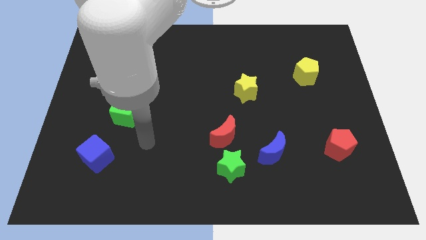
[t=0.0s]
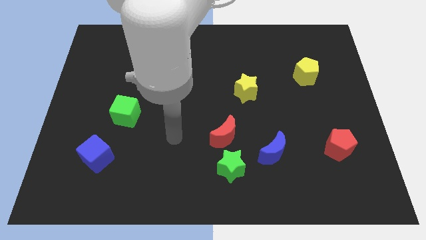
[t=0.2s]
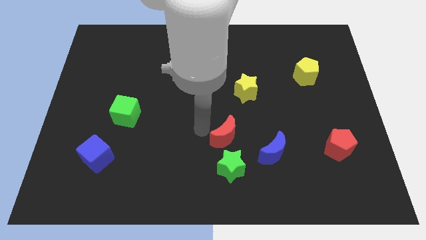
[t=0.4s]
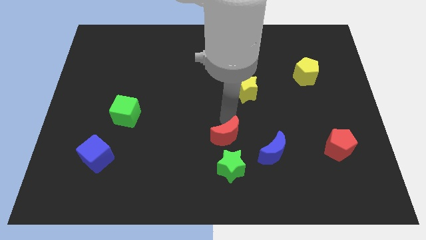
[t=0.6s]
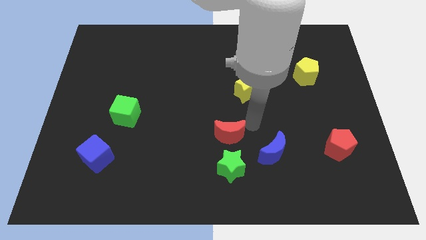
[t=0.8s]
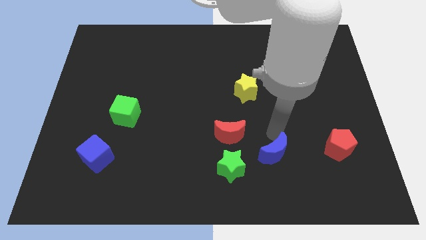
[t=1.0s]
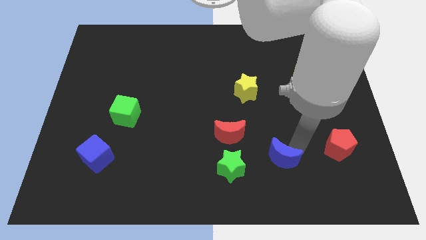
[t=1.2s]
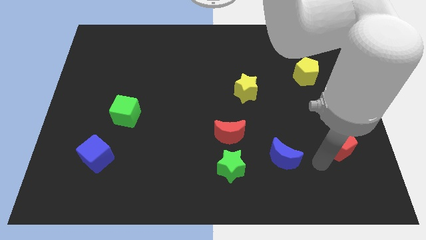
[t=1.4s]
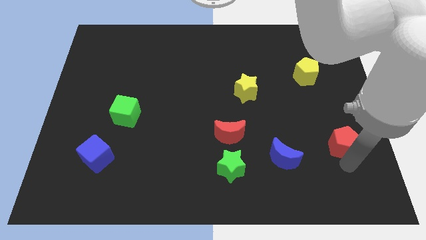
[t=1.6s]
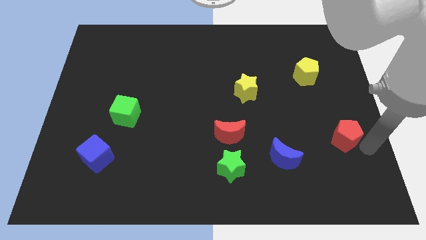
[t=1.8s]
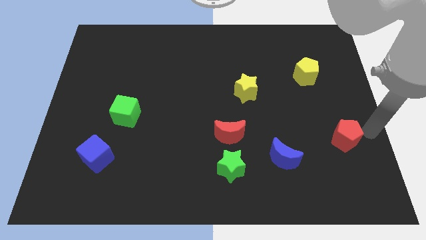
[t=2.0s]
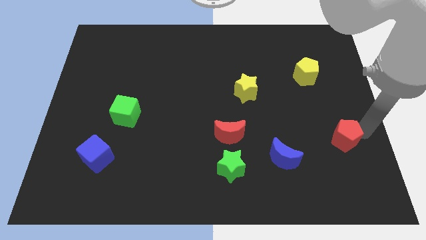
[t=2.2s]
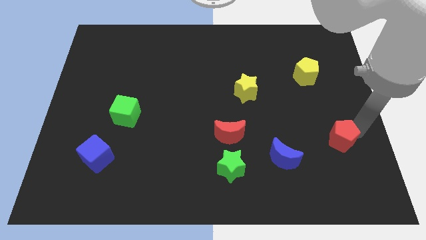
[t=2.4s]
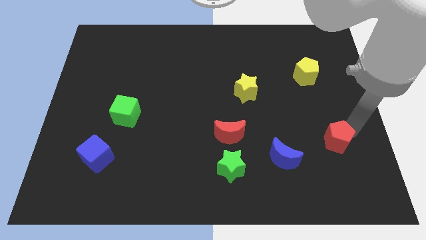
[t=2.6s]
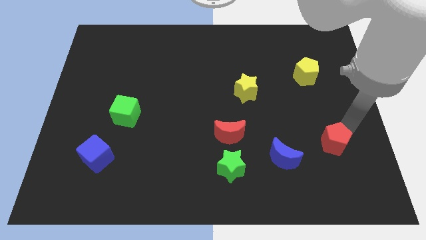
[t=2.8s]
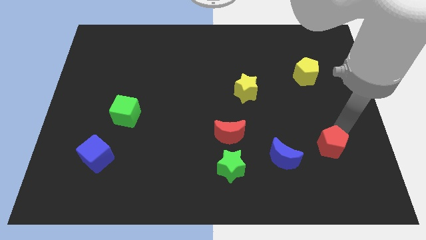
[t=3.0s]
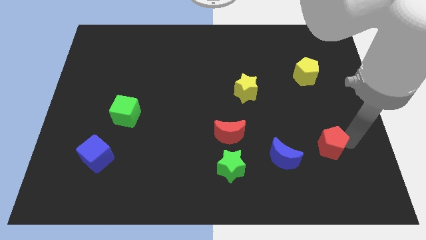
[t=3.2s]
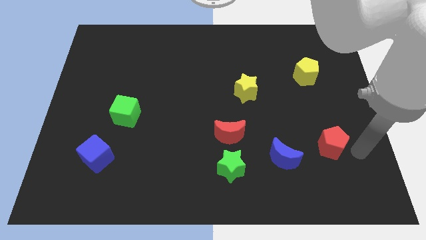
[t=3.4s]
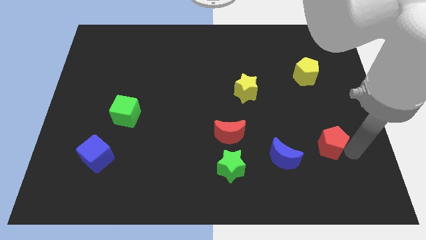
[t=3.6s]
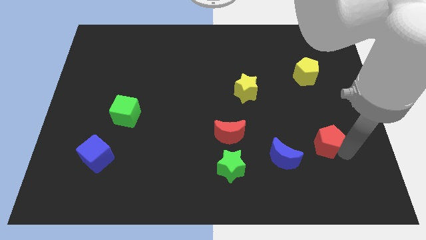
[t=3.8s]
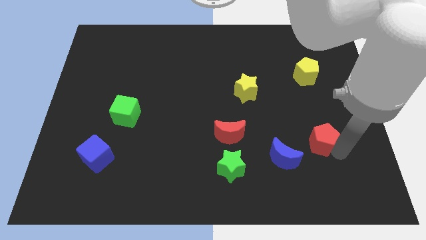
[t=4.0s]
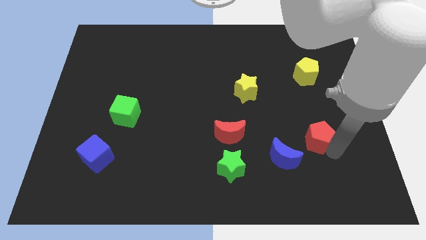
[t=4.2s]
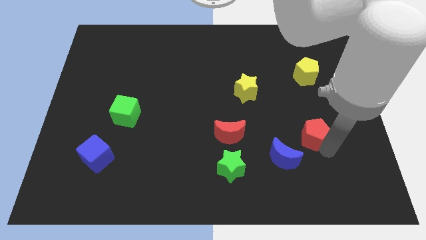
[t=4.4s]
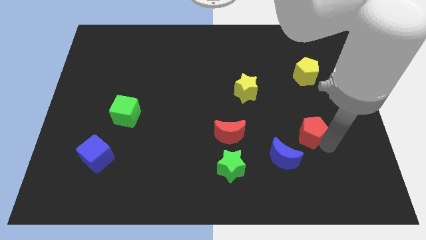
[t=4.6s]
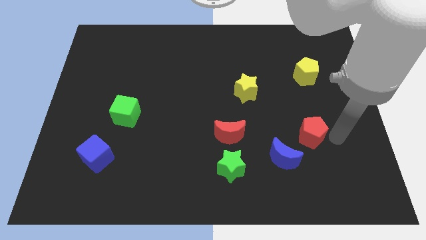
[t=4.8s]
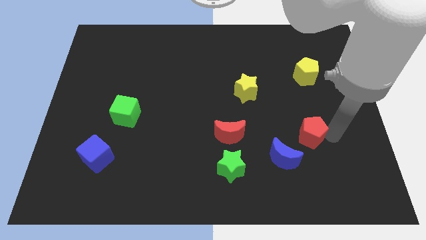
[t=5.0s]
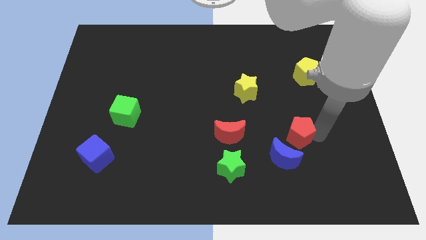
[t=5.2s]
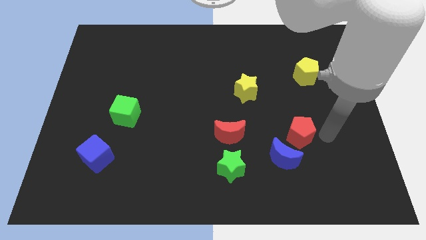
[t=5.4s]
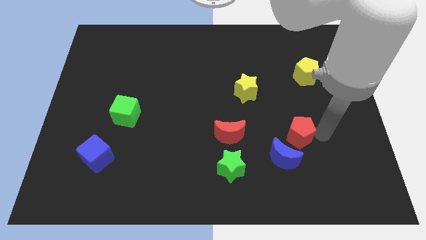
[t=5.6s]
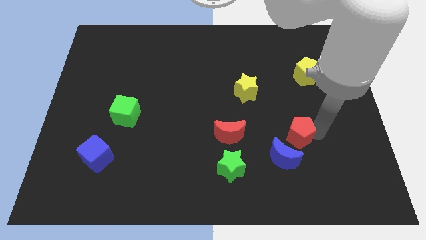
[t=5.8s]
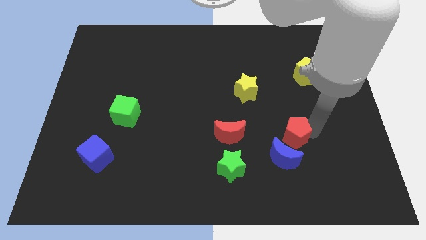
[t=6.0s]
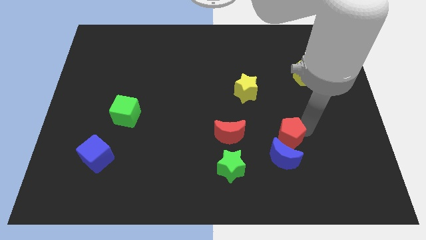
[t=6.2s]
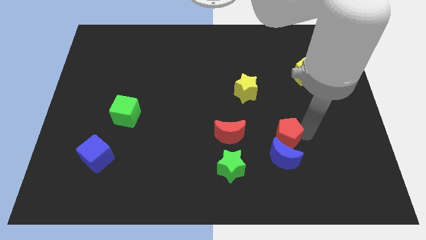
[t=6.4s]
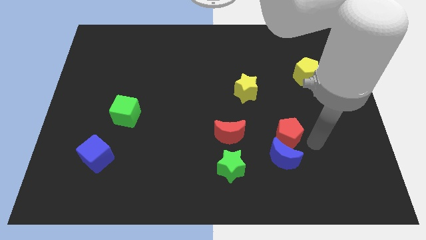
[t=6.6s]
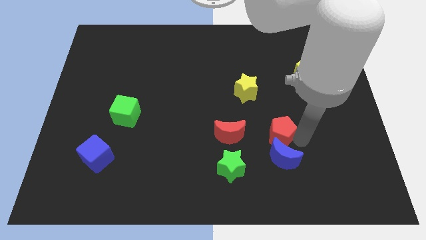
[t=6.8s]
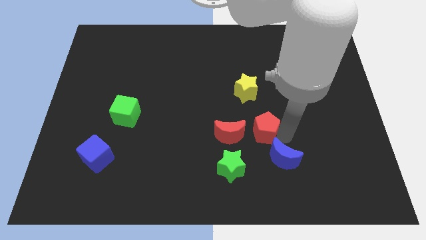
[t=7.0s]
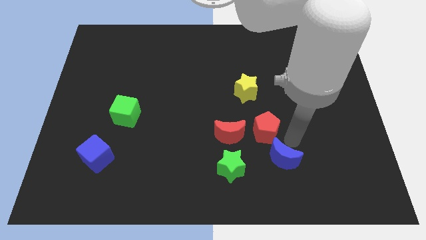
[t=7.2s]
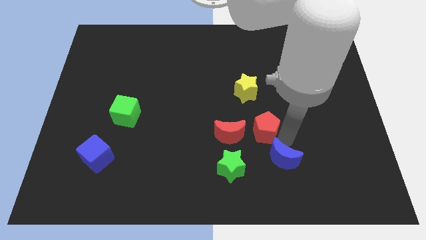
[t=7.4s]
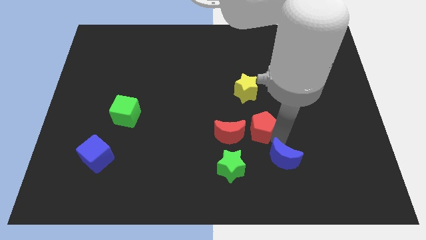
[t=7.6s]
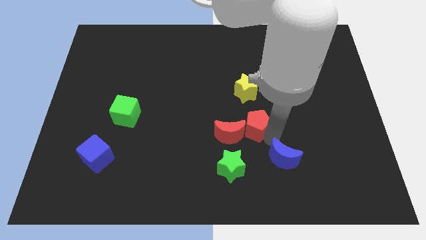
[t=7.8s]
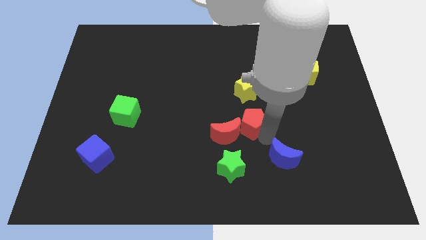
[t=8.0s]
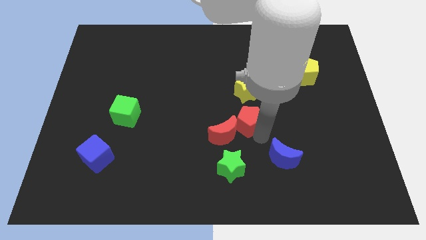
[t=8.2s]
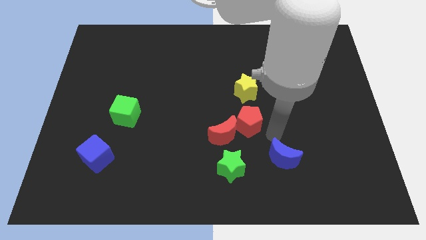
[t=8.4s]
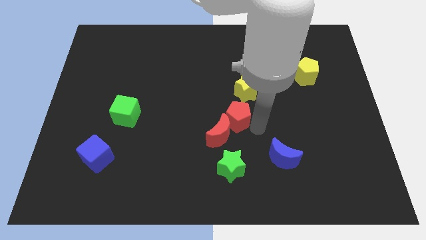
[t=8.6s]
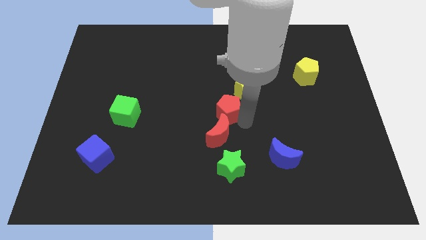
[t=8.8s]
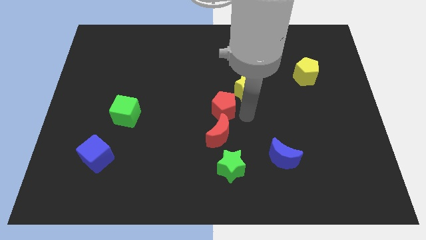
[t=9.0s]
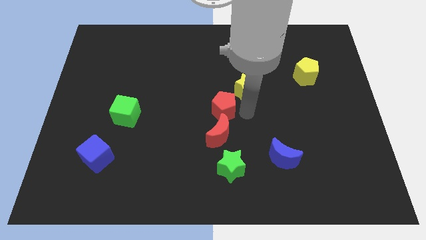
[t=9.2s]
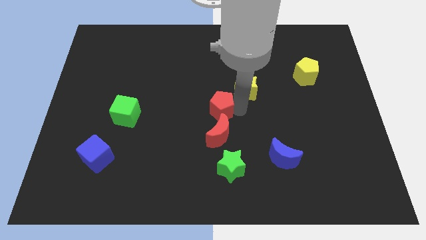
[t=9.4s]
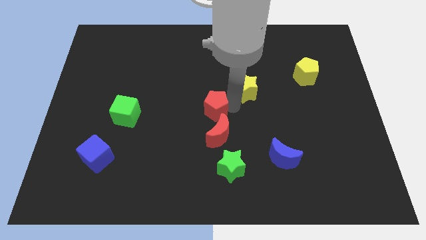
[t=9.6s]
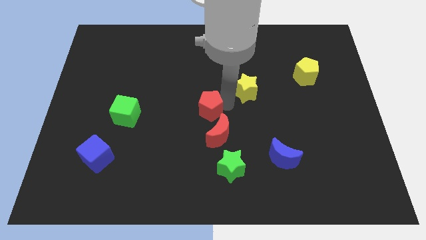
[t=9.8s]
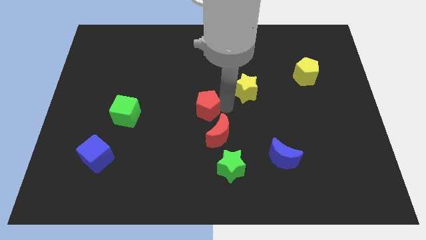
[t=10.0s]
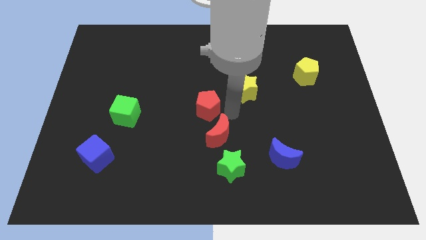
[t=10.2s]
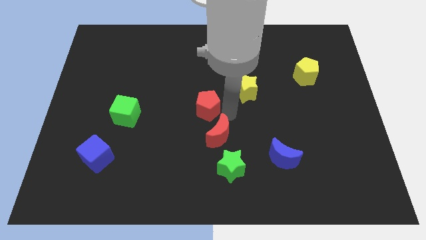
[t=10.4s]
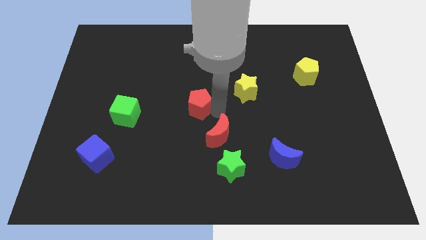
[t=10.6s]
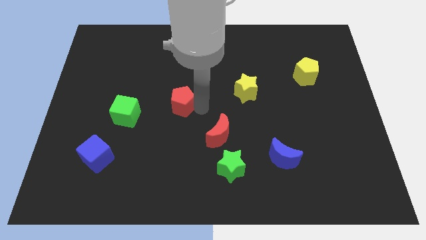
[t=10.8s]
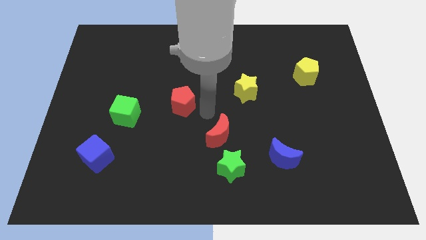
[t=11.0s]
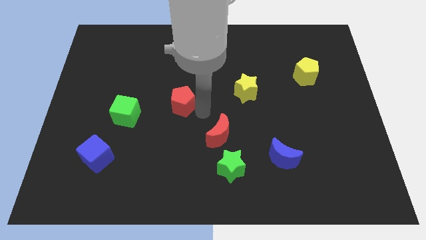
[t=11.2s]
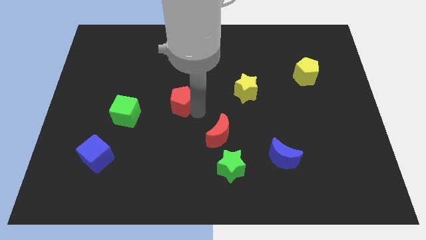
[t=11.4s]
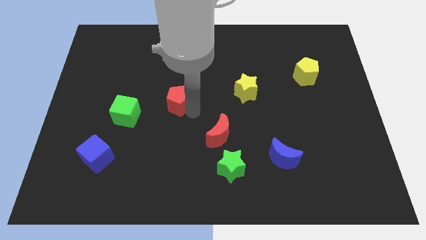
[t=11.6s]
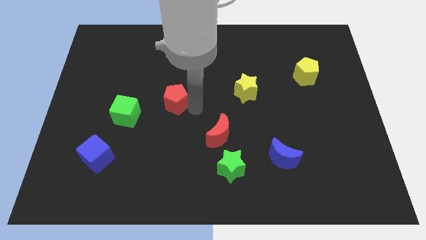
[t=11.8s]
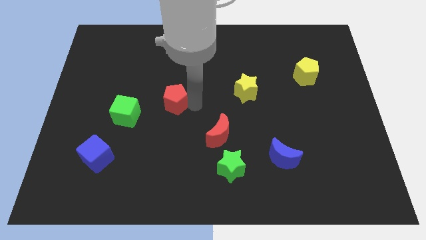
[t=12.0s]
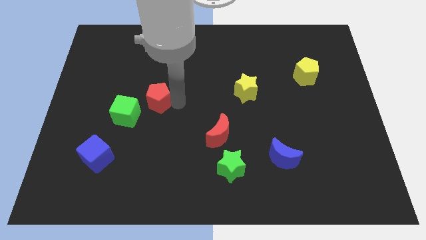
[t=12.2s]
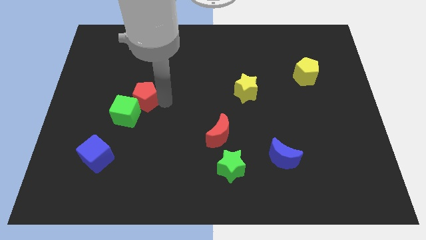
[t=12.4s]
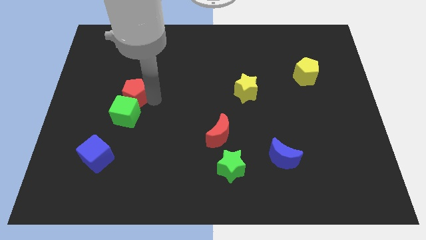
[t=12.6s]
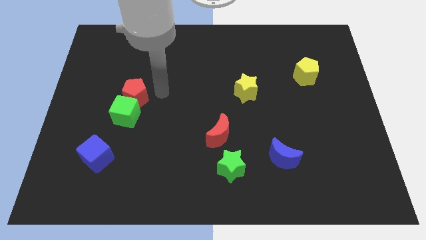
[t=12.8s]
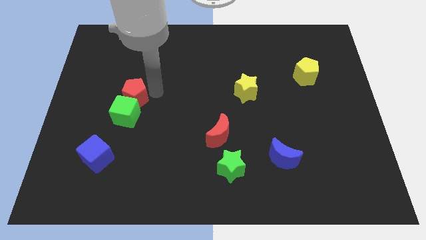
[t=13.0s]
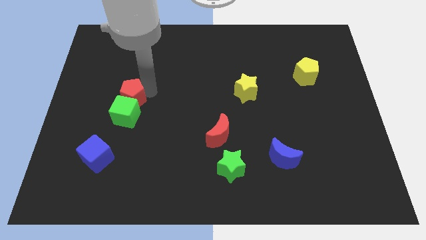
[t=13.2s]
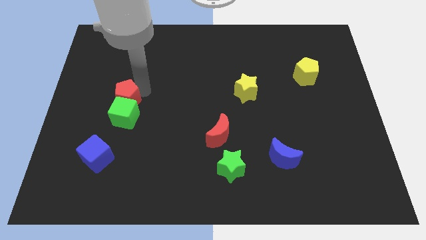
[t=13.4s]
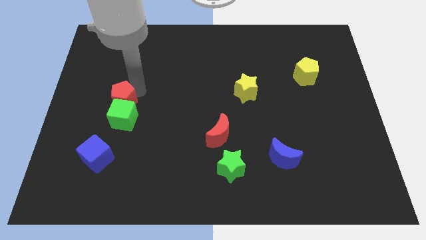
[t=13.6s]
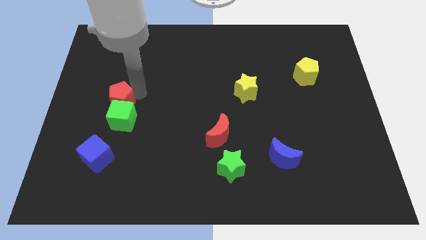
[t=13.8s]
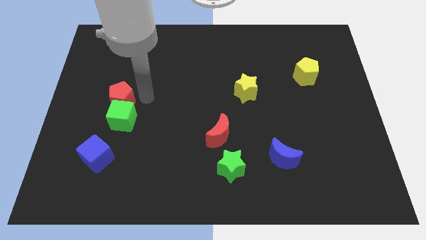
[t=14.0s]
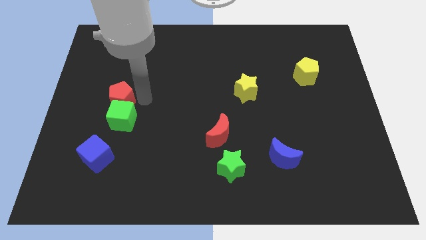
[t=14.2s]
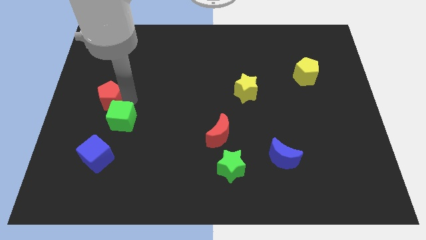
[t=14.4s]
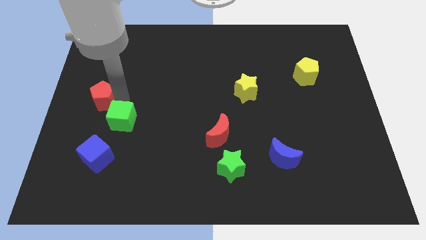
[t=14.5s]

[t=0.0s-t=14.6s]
put the red pentagon to the center left
